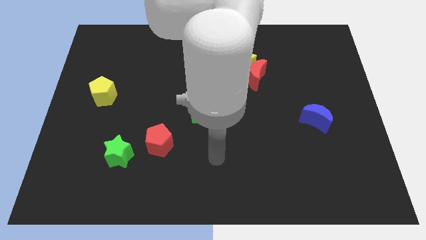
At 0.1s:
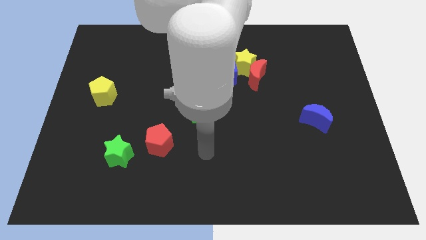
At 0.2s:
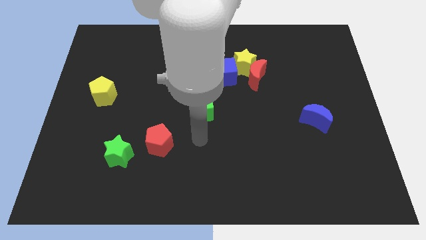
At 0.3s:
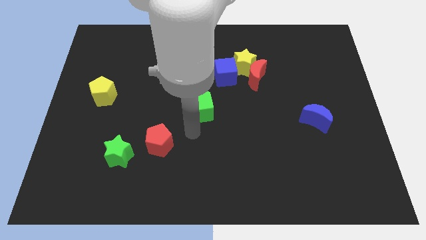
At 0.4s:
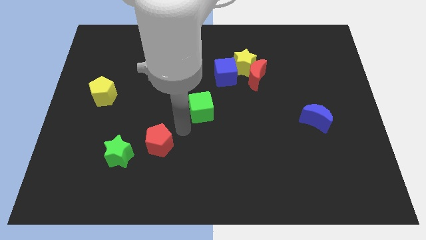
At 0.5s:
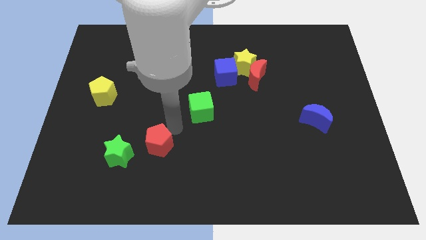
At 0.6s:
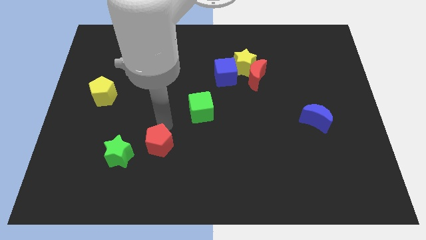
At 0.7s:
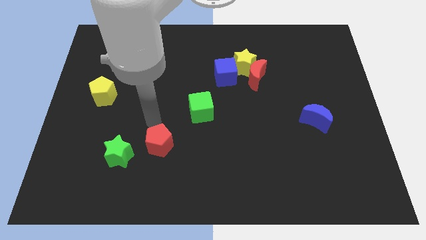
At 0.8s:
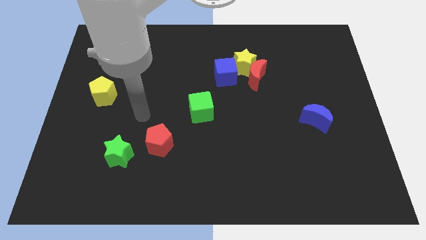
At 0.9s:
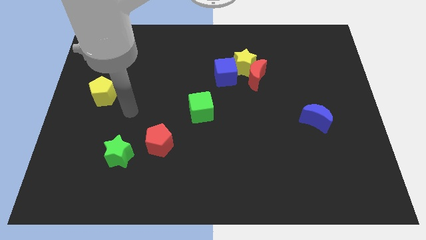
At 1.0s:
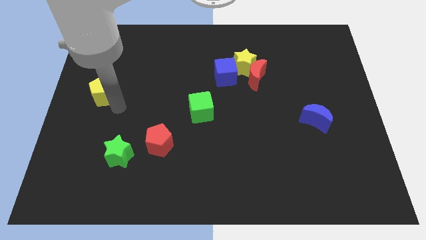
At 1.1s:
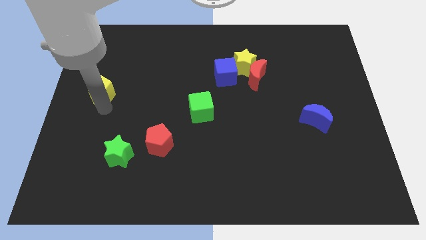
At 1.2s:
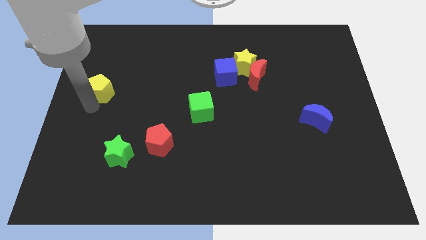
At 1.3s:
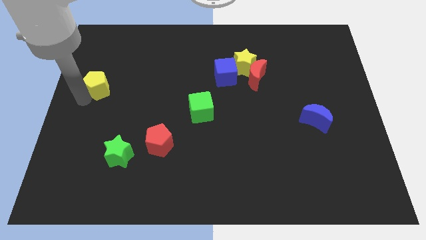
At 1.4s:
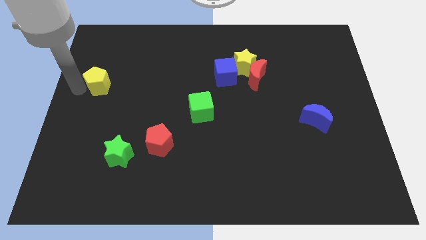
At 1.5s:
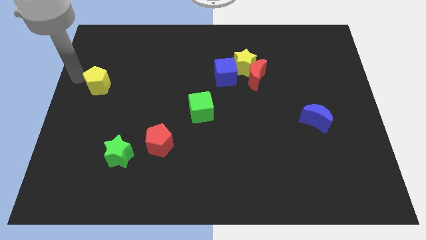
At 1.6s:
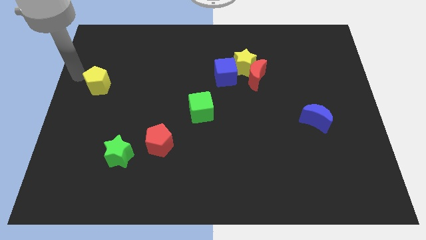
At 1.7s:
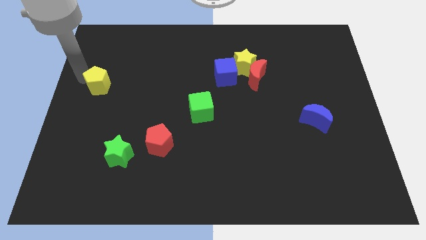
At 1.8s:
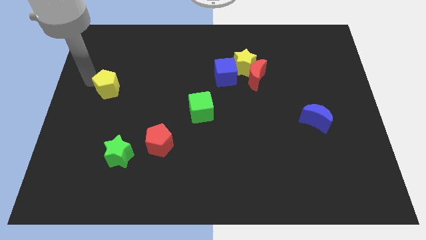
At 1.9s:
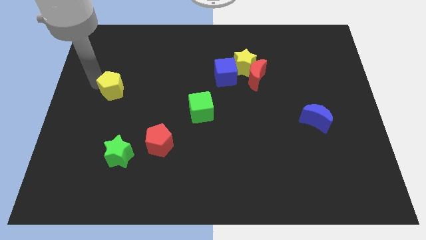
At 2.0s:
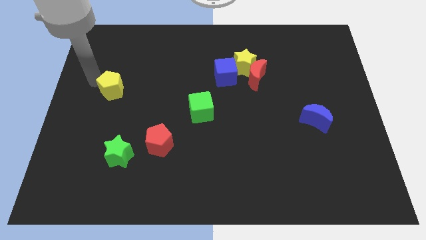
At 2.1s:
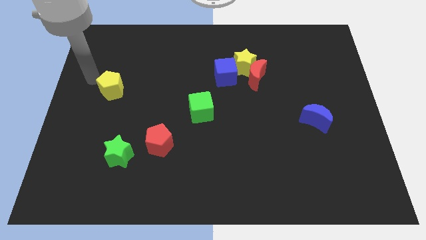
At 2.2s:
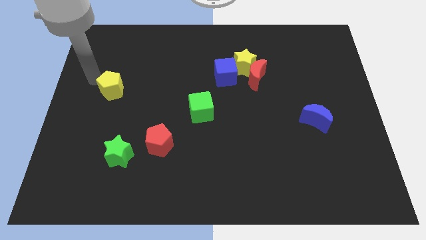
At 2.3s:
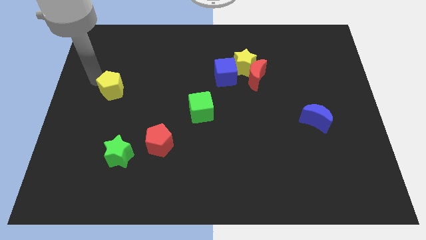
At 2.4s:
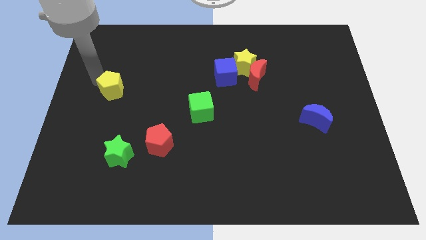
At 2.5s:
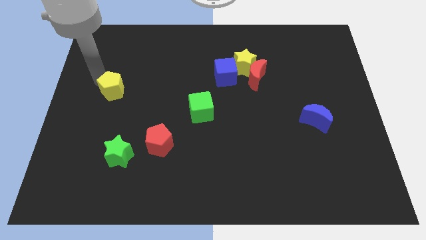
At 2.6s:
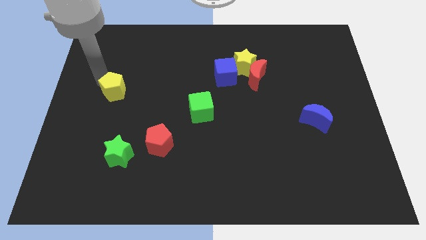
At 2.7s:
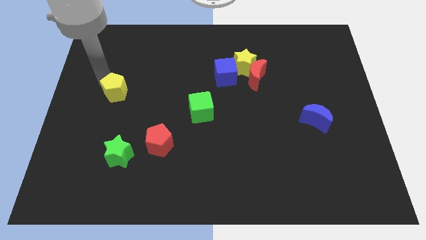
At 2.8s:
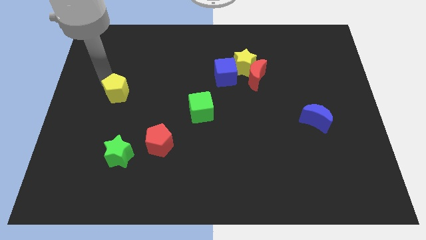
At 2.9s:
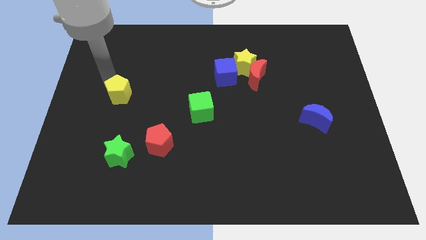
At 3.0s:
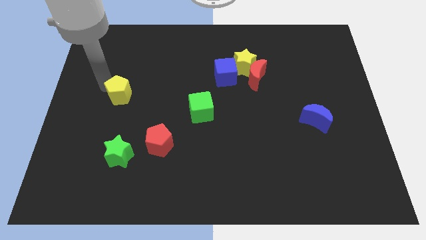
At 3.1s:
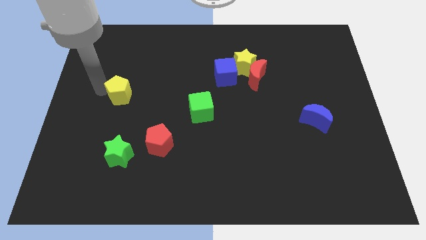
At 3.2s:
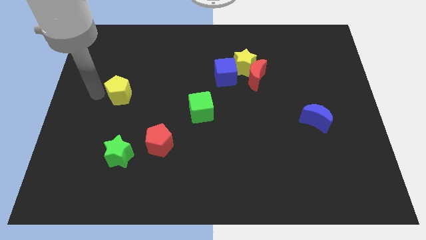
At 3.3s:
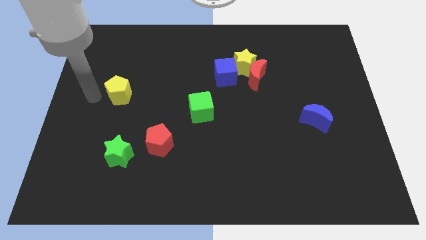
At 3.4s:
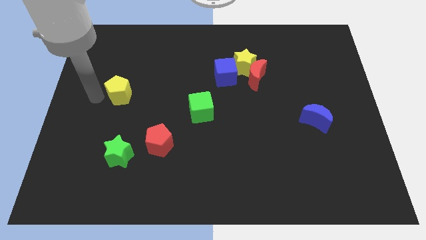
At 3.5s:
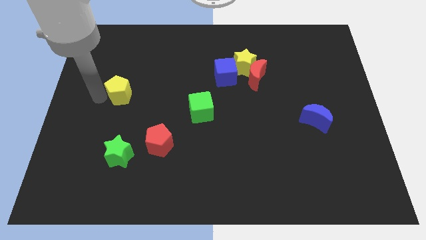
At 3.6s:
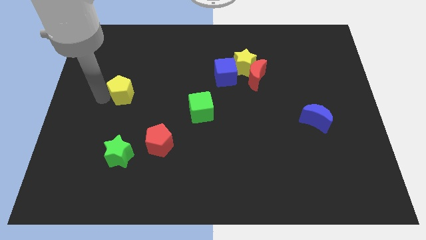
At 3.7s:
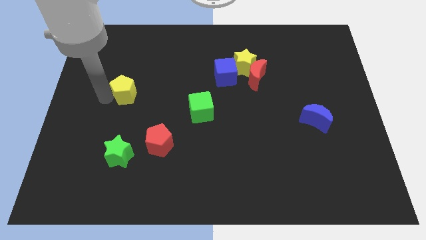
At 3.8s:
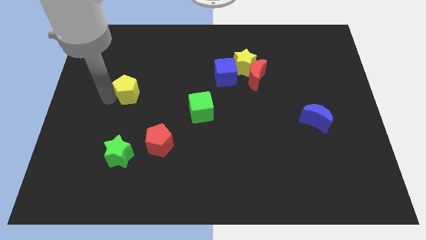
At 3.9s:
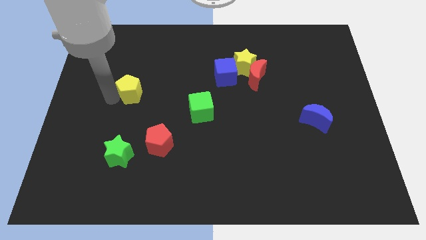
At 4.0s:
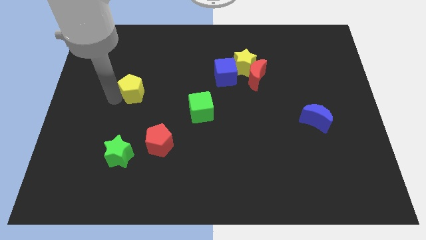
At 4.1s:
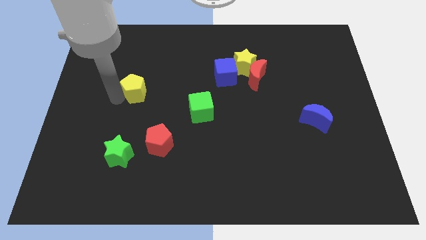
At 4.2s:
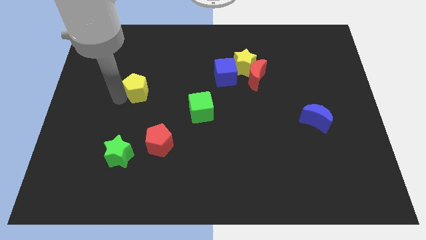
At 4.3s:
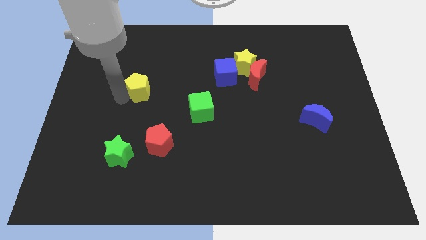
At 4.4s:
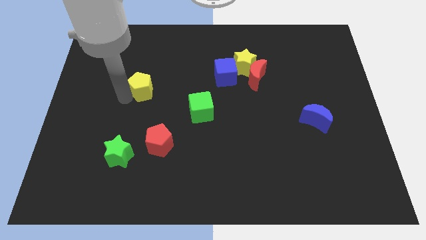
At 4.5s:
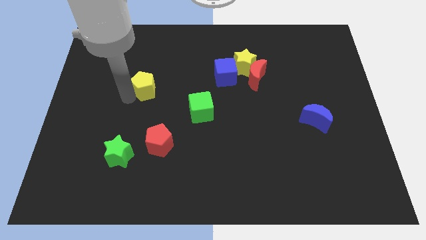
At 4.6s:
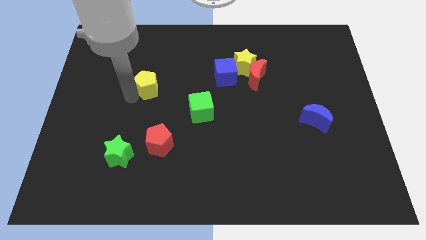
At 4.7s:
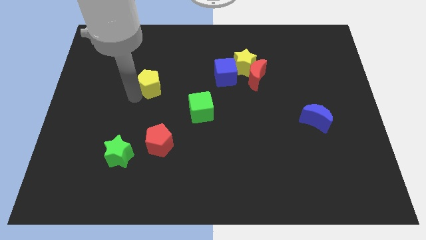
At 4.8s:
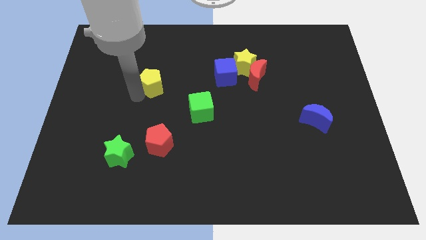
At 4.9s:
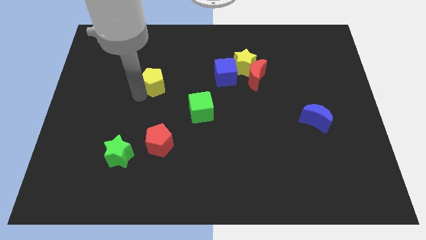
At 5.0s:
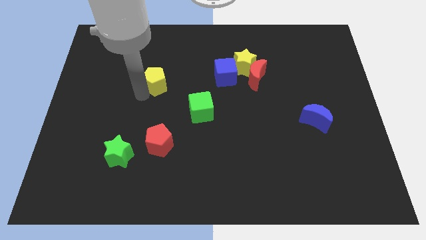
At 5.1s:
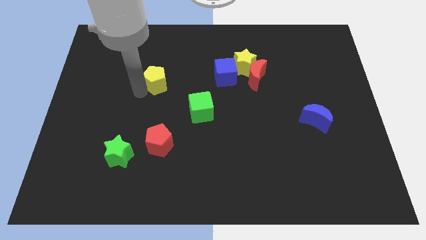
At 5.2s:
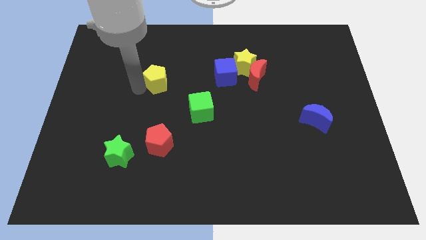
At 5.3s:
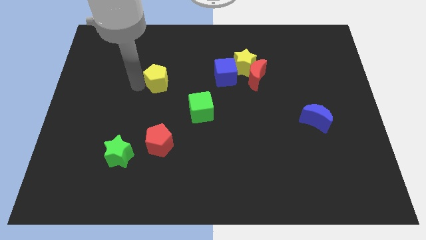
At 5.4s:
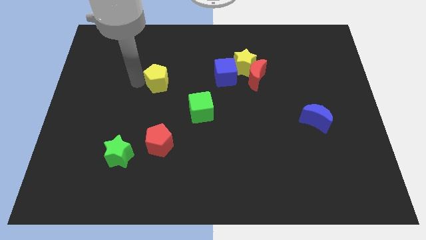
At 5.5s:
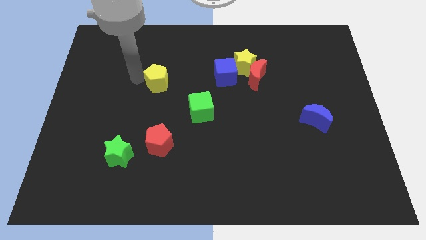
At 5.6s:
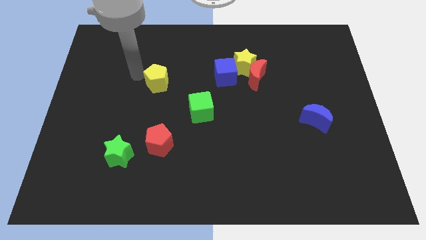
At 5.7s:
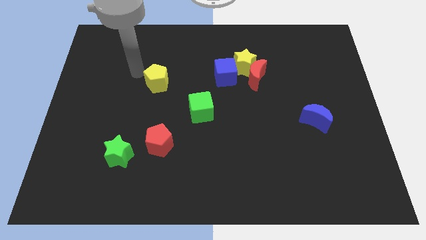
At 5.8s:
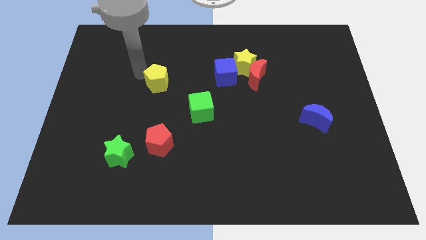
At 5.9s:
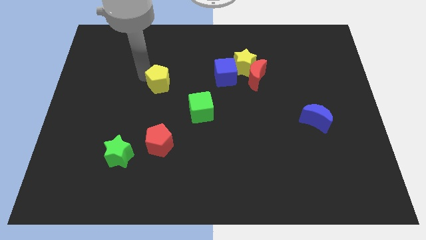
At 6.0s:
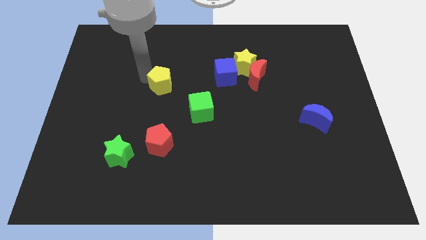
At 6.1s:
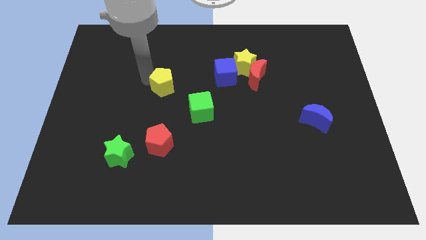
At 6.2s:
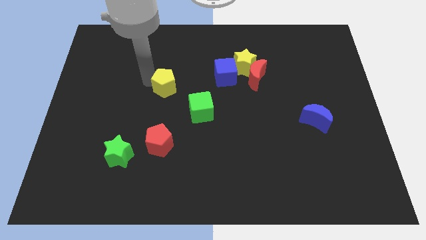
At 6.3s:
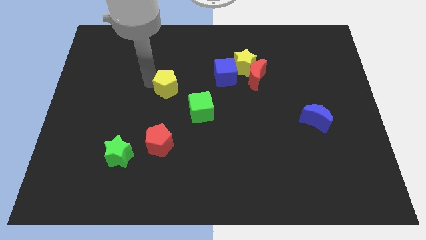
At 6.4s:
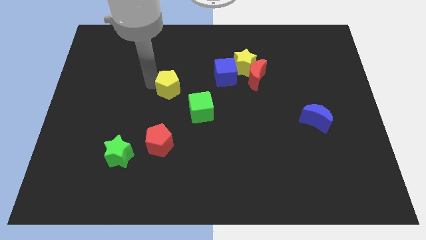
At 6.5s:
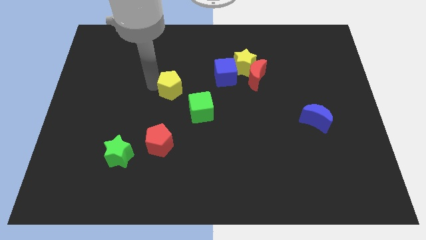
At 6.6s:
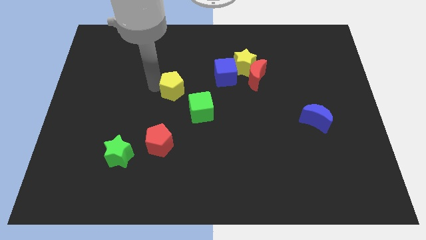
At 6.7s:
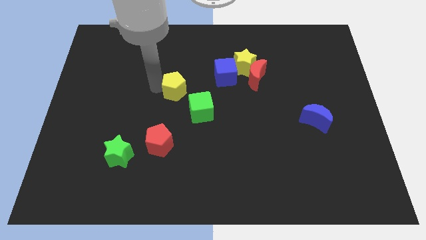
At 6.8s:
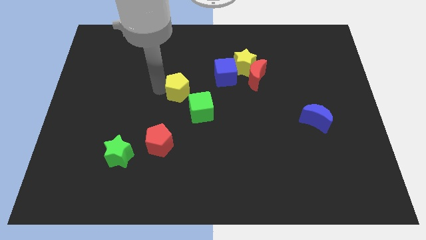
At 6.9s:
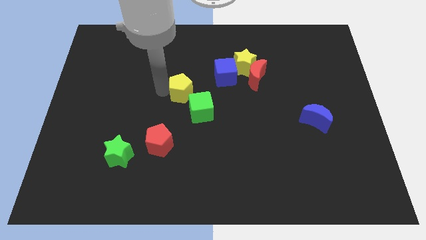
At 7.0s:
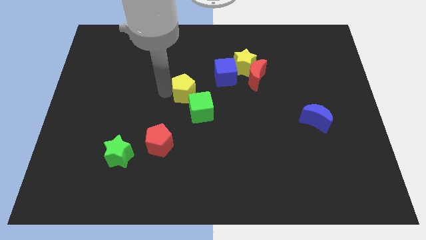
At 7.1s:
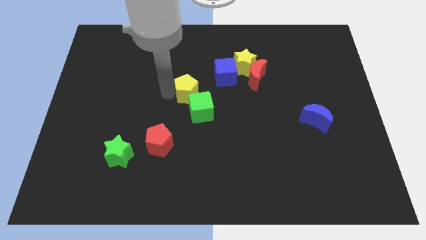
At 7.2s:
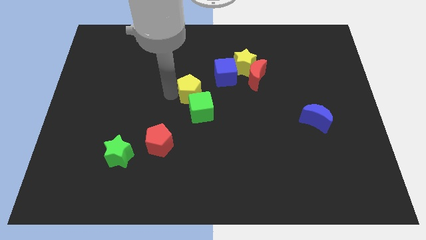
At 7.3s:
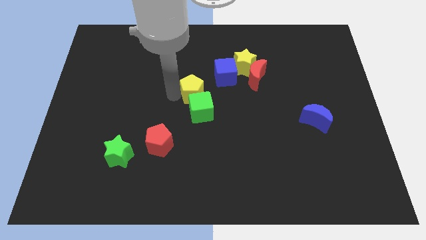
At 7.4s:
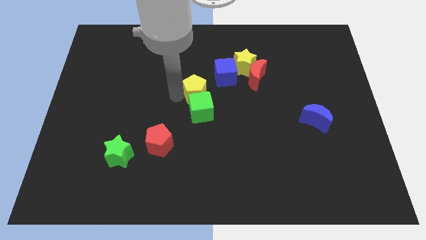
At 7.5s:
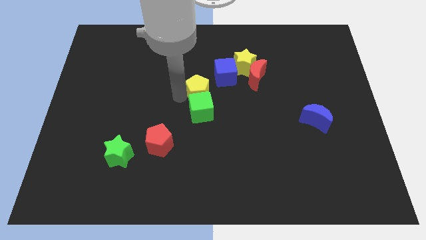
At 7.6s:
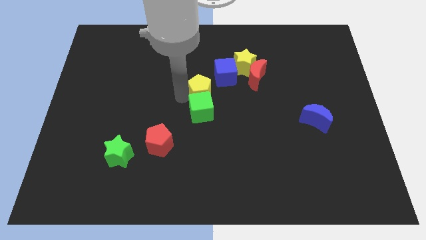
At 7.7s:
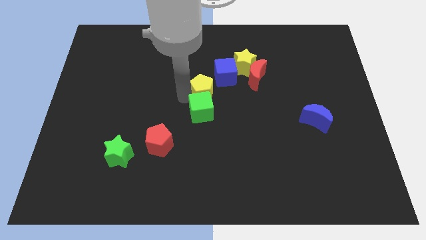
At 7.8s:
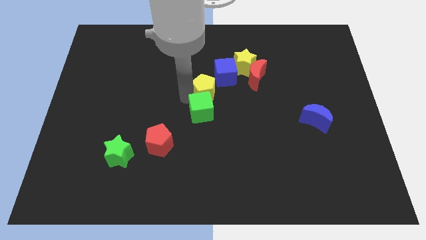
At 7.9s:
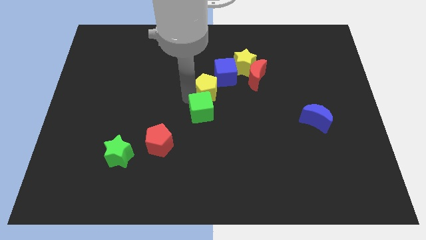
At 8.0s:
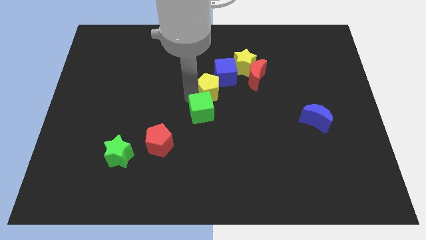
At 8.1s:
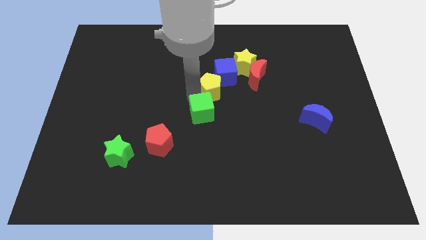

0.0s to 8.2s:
put the yellow pentagon next to the blue cube
